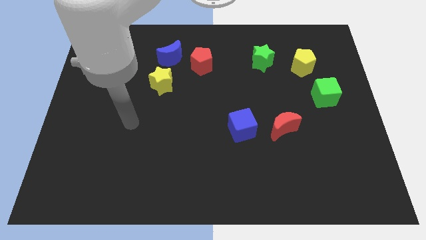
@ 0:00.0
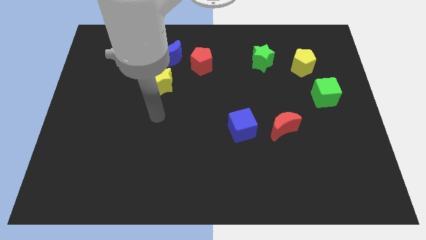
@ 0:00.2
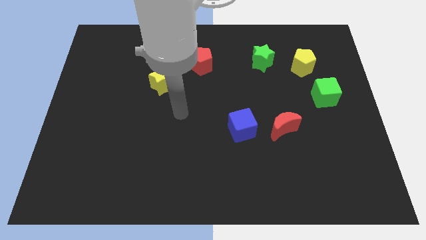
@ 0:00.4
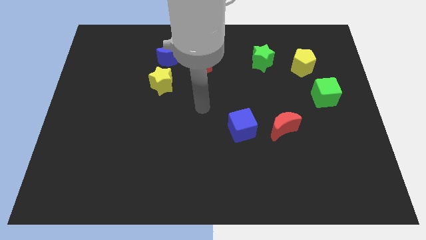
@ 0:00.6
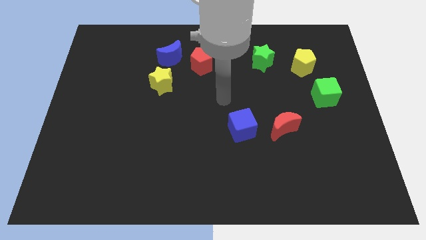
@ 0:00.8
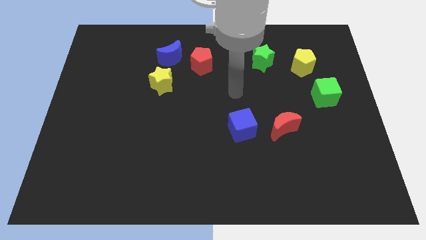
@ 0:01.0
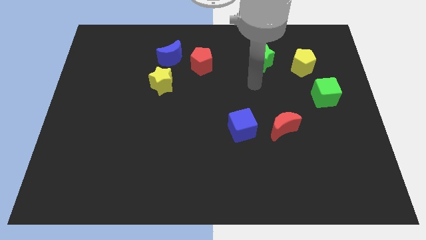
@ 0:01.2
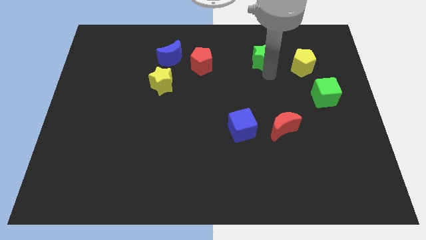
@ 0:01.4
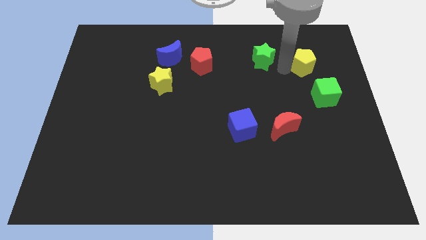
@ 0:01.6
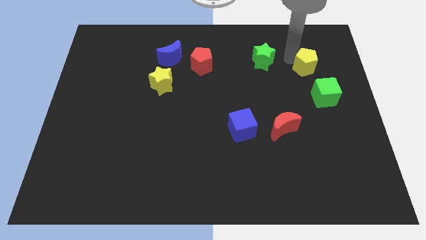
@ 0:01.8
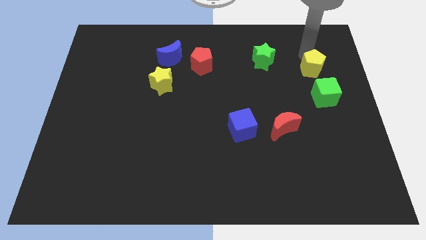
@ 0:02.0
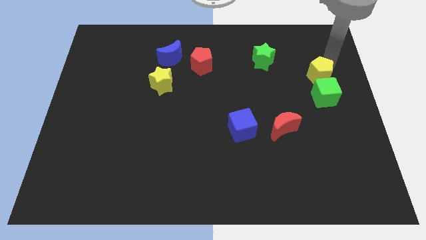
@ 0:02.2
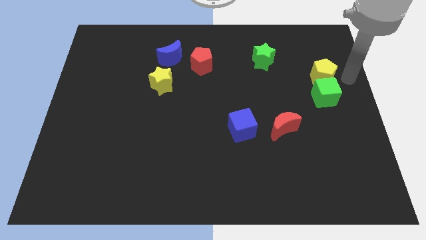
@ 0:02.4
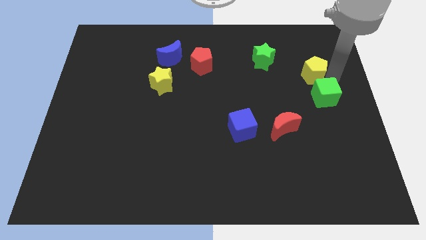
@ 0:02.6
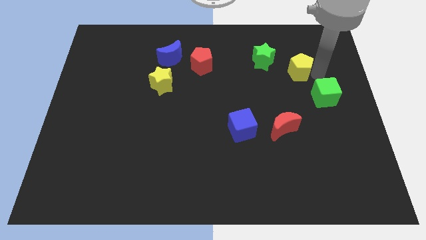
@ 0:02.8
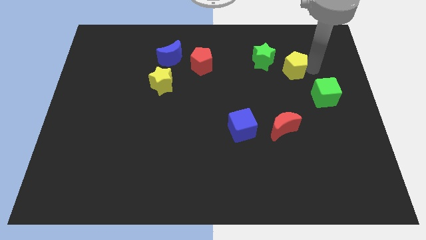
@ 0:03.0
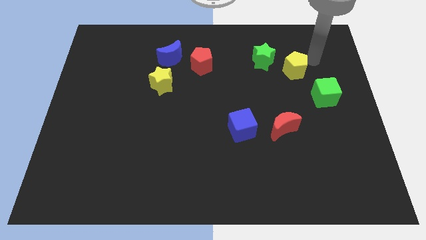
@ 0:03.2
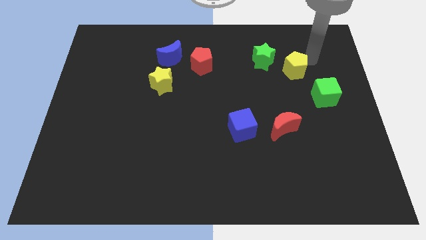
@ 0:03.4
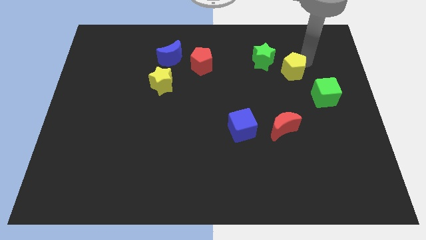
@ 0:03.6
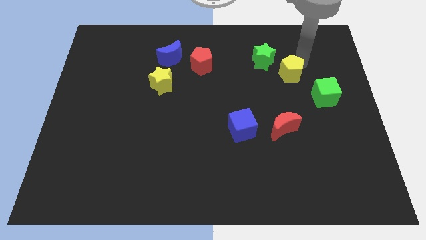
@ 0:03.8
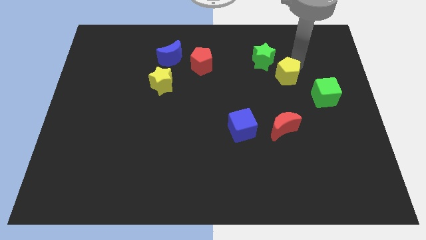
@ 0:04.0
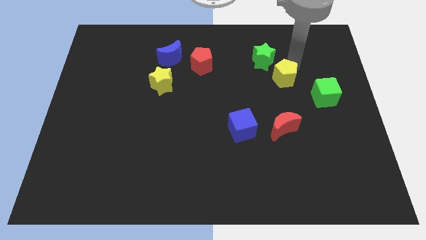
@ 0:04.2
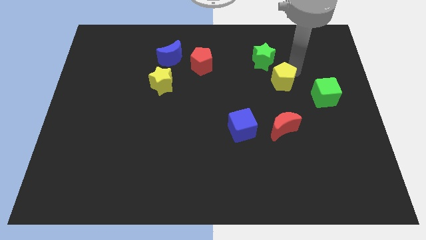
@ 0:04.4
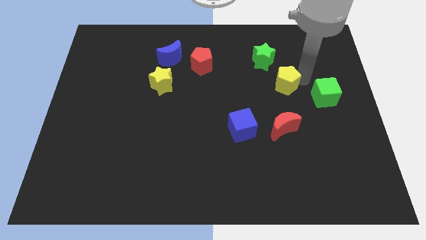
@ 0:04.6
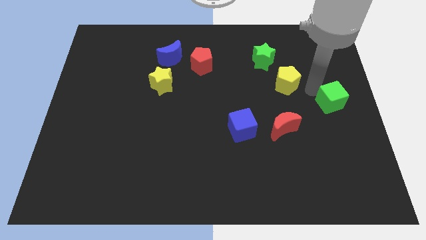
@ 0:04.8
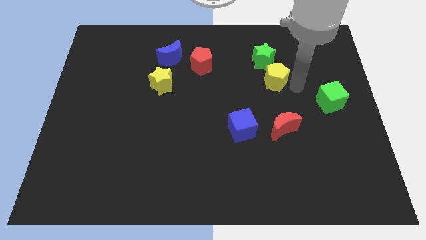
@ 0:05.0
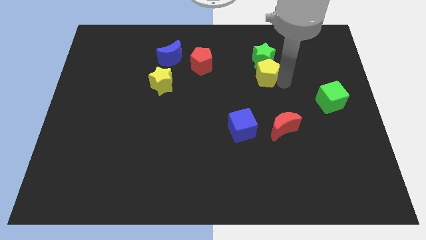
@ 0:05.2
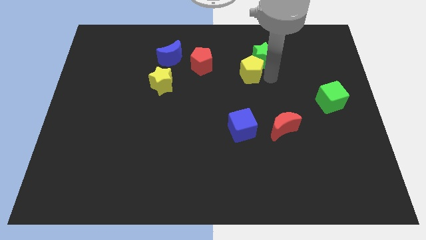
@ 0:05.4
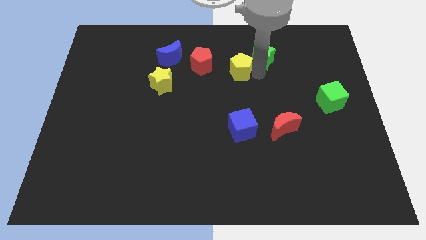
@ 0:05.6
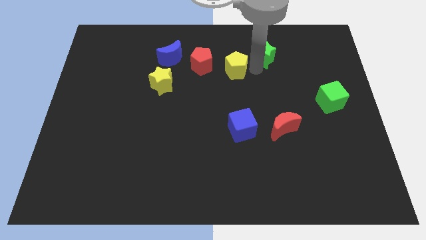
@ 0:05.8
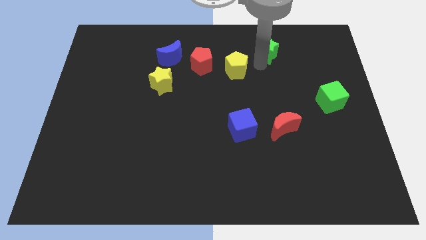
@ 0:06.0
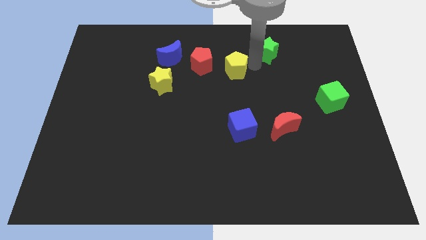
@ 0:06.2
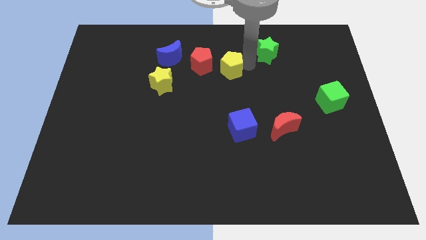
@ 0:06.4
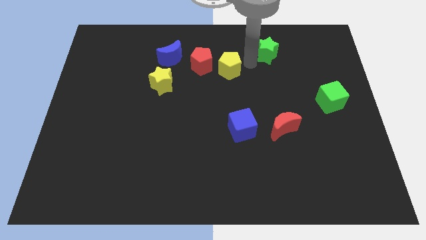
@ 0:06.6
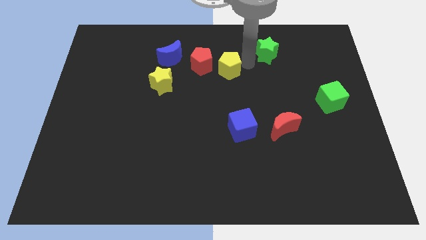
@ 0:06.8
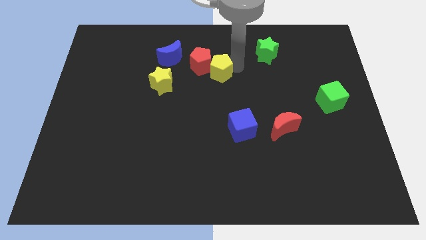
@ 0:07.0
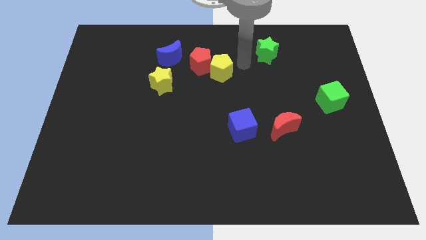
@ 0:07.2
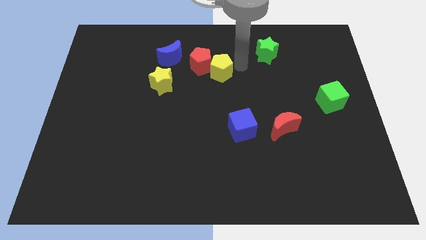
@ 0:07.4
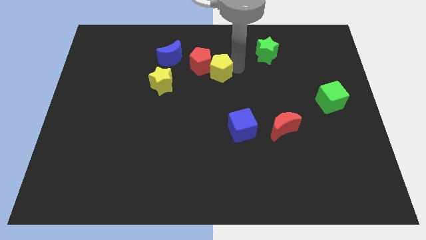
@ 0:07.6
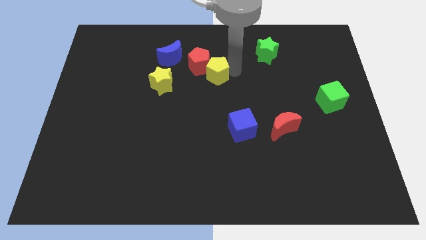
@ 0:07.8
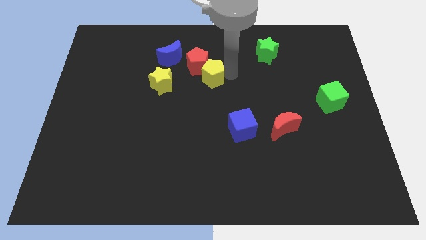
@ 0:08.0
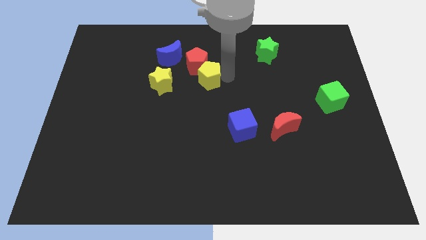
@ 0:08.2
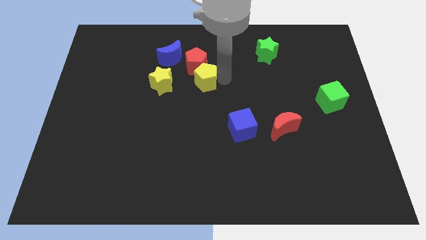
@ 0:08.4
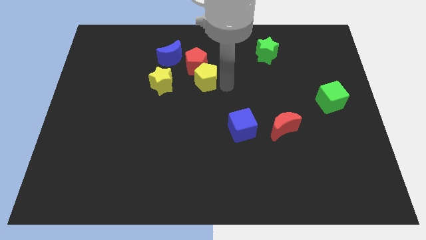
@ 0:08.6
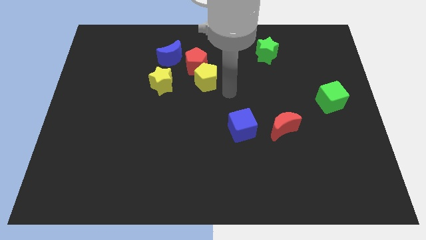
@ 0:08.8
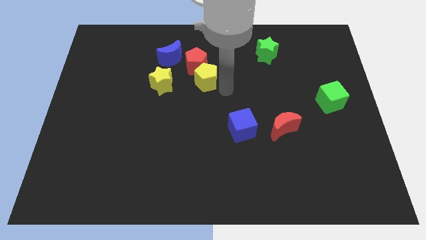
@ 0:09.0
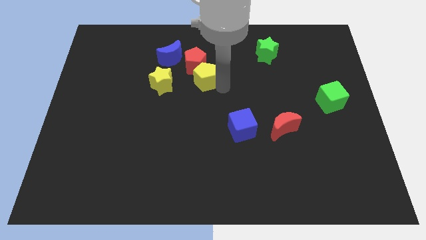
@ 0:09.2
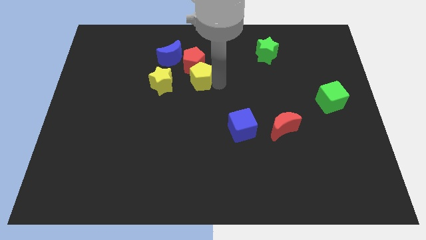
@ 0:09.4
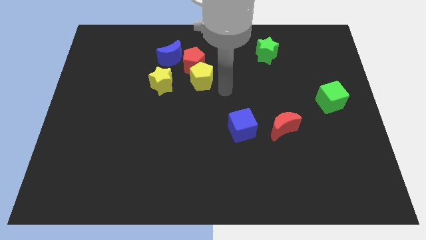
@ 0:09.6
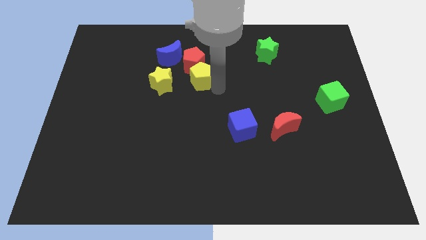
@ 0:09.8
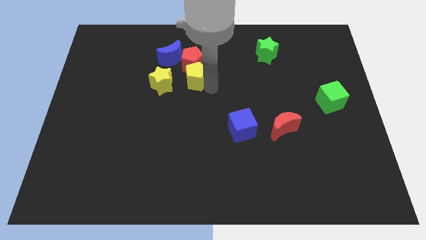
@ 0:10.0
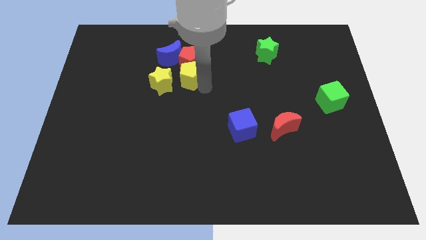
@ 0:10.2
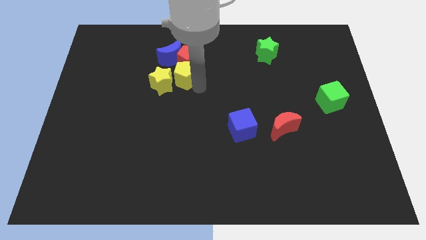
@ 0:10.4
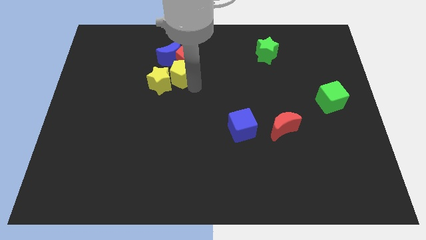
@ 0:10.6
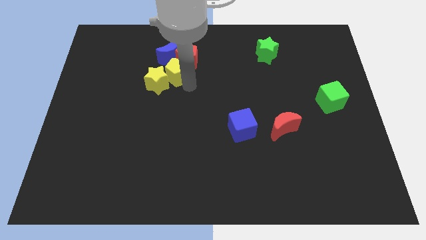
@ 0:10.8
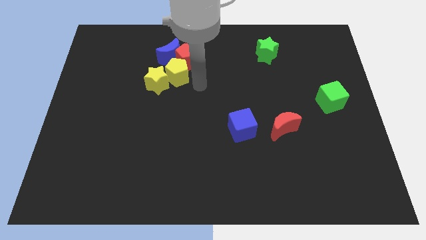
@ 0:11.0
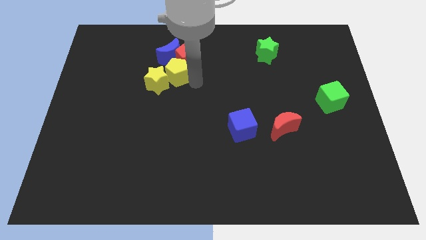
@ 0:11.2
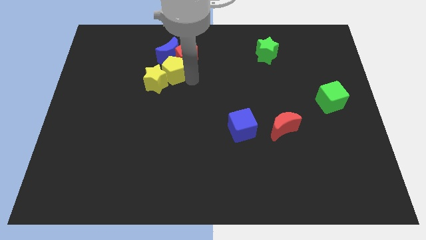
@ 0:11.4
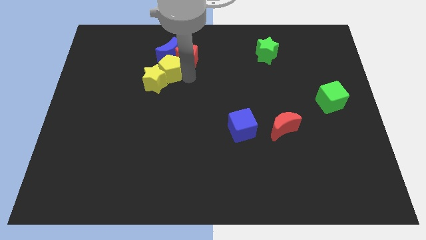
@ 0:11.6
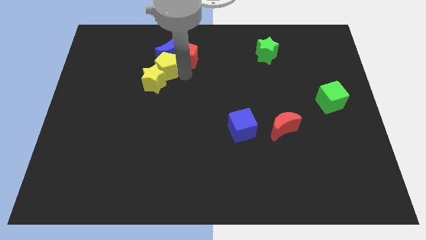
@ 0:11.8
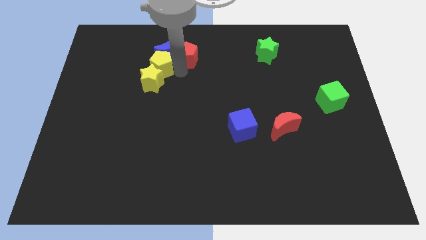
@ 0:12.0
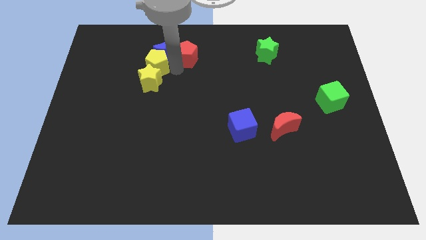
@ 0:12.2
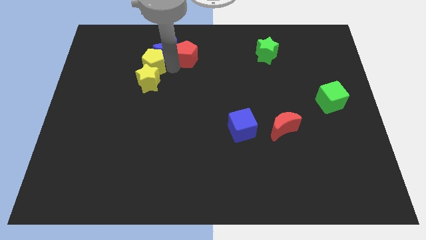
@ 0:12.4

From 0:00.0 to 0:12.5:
move the yellow pentagon left of the blue moon

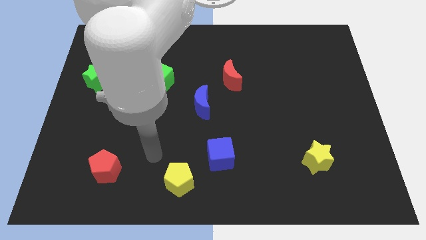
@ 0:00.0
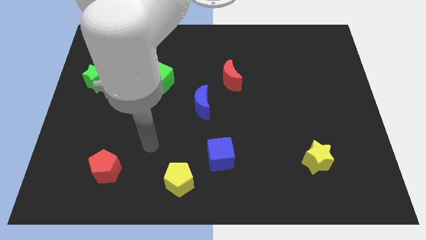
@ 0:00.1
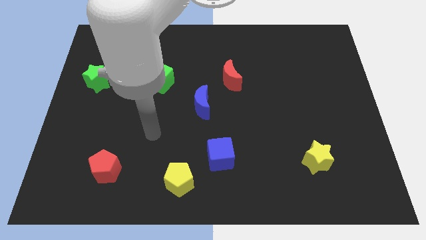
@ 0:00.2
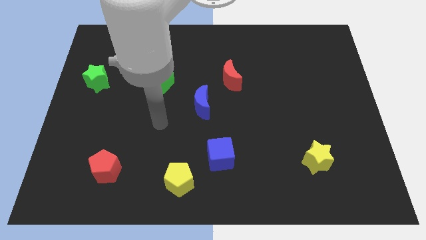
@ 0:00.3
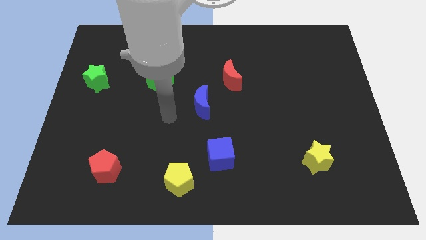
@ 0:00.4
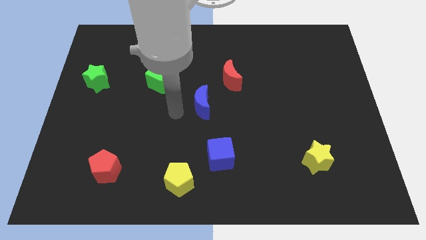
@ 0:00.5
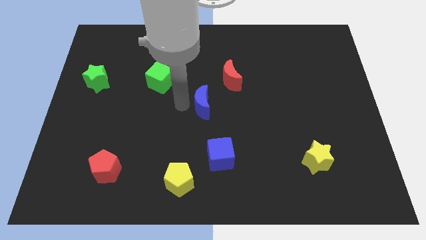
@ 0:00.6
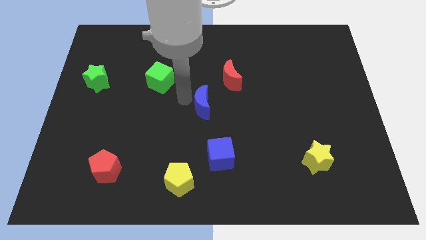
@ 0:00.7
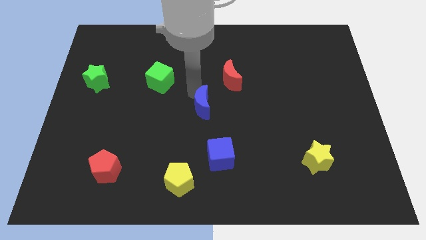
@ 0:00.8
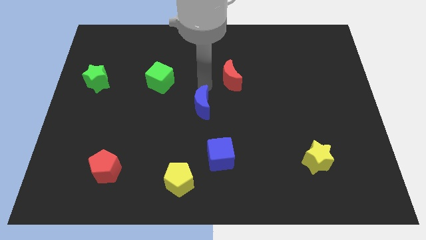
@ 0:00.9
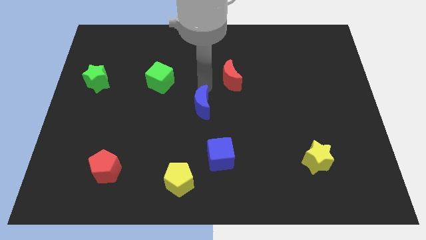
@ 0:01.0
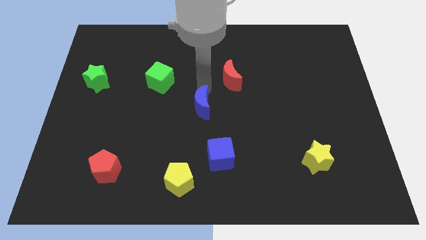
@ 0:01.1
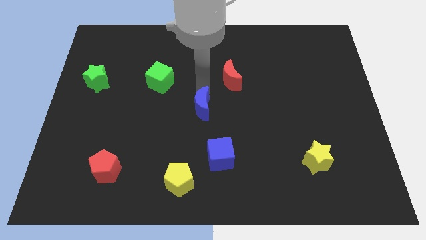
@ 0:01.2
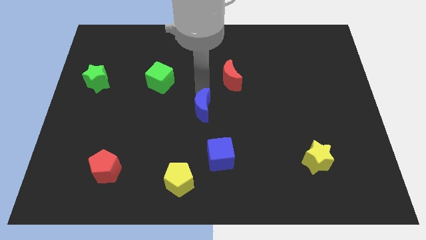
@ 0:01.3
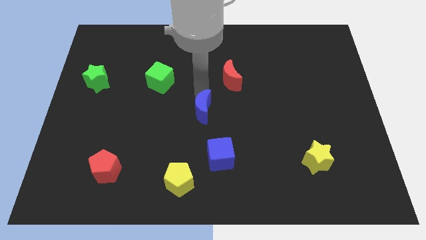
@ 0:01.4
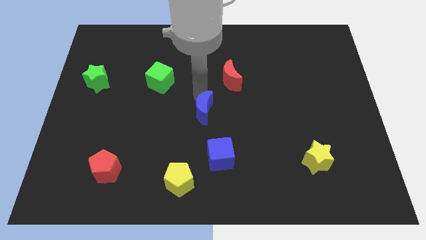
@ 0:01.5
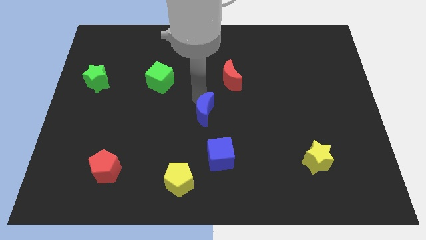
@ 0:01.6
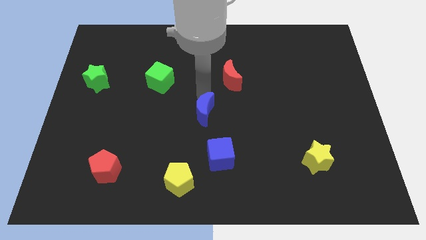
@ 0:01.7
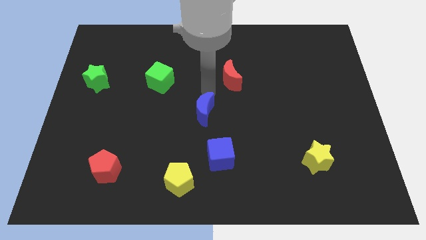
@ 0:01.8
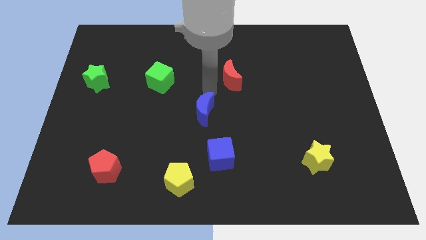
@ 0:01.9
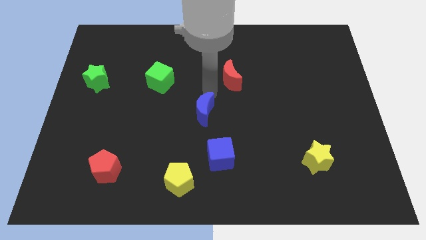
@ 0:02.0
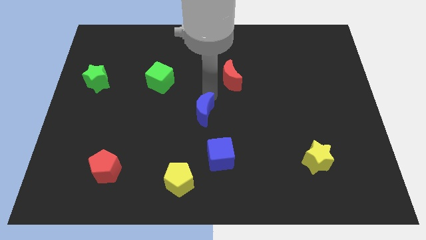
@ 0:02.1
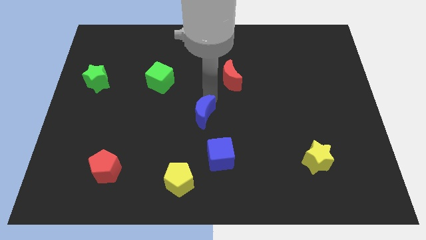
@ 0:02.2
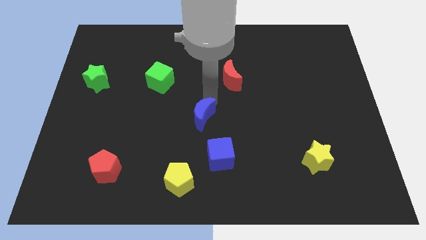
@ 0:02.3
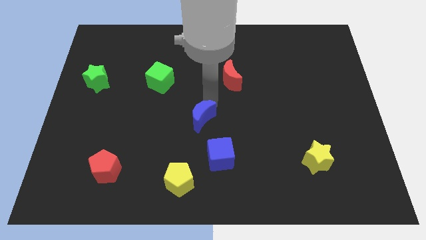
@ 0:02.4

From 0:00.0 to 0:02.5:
push the blue moon to the top left of the blue cube
